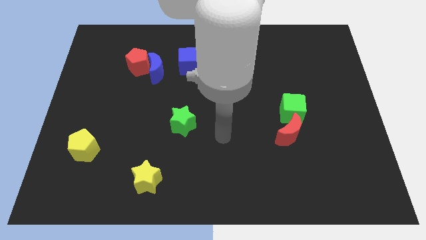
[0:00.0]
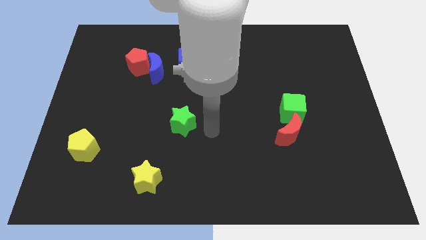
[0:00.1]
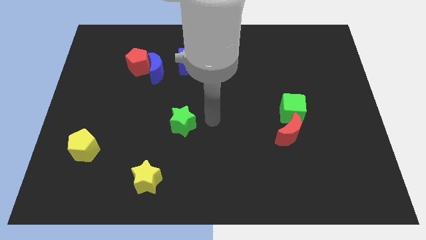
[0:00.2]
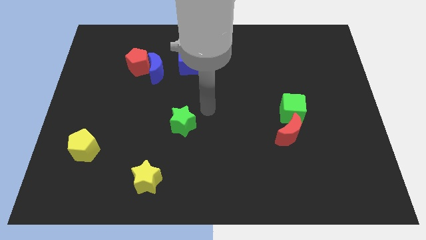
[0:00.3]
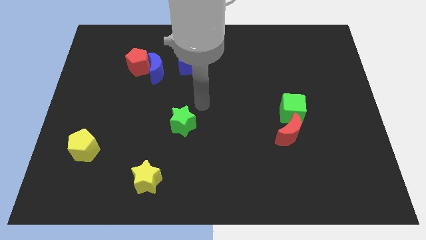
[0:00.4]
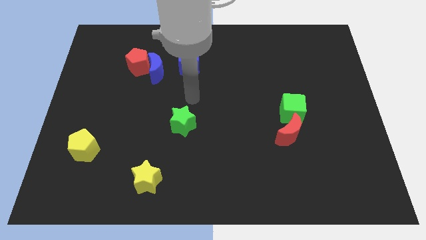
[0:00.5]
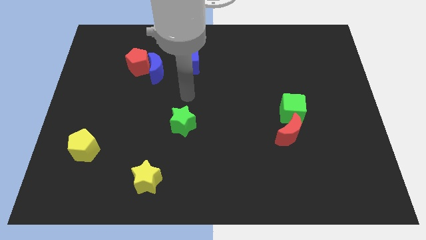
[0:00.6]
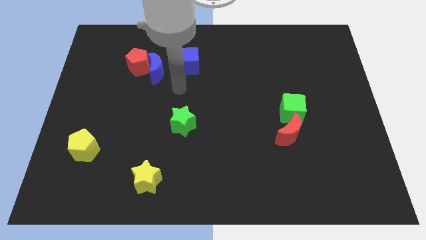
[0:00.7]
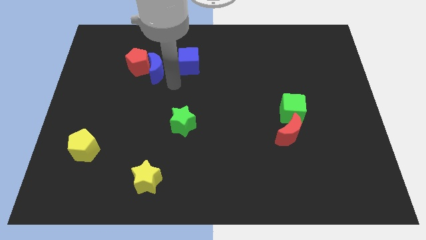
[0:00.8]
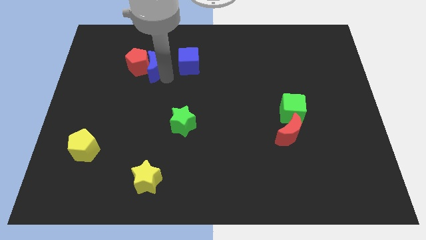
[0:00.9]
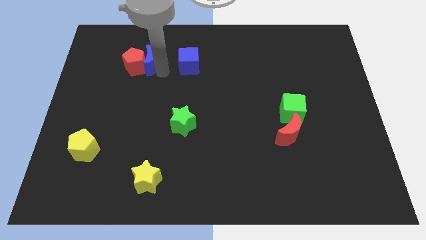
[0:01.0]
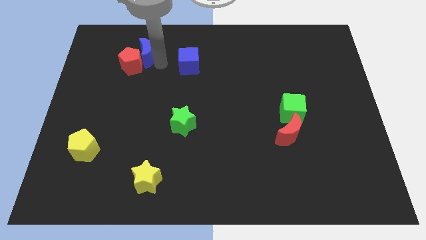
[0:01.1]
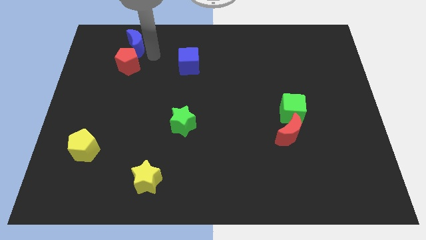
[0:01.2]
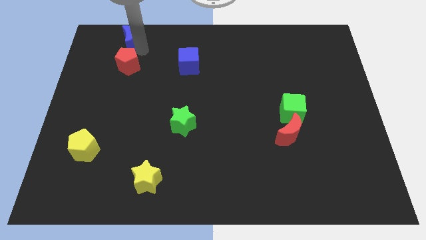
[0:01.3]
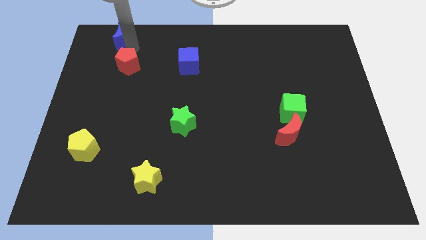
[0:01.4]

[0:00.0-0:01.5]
move the red pentagon away from the blue moon

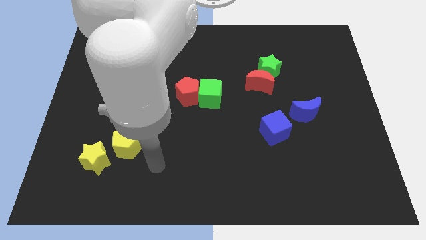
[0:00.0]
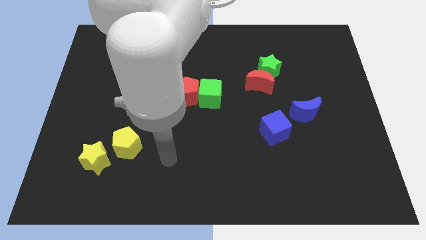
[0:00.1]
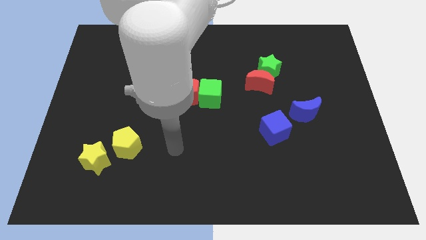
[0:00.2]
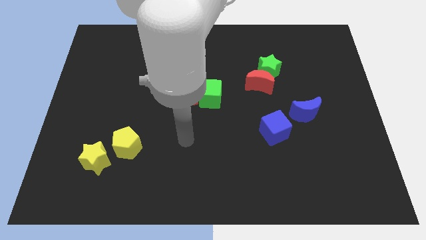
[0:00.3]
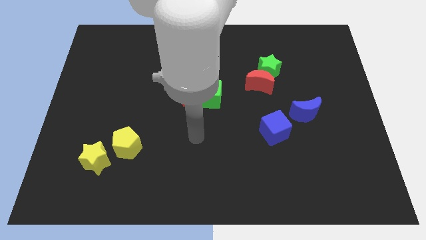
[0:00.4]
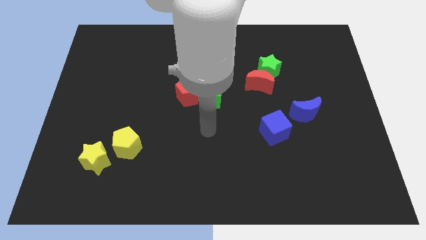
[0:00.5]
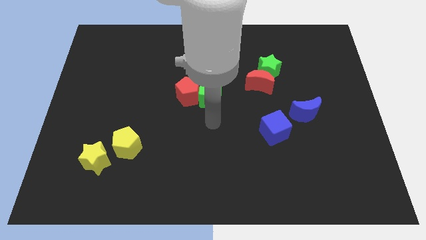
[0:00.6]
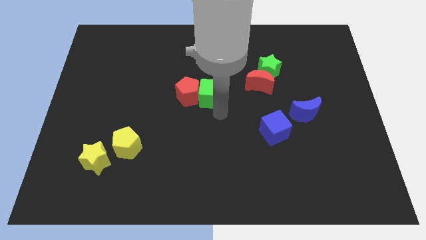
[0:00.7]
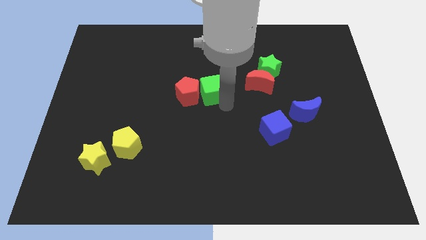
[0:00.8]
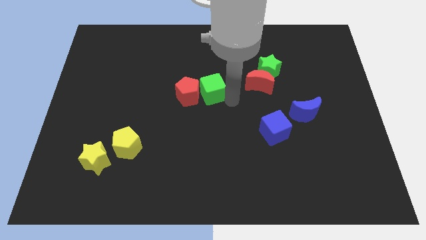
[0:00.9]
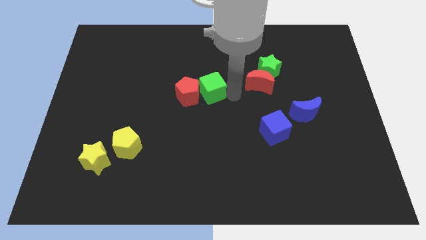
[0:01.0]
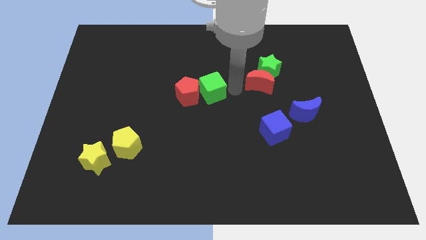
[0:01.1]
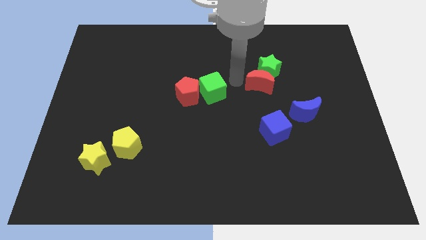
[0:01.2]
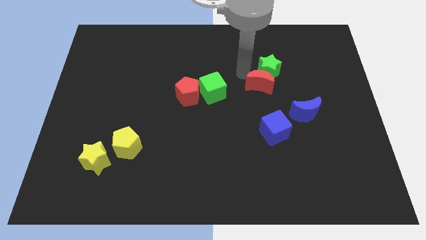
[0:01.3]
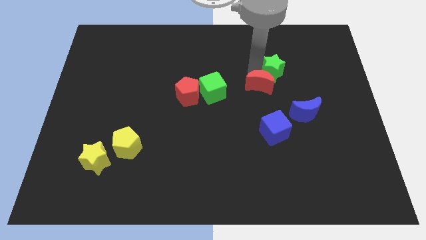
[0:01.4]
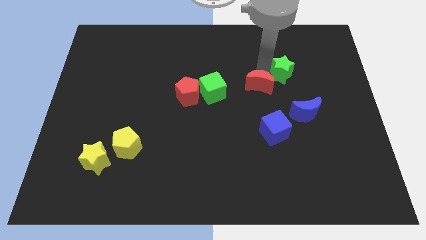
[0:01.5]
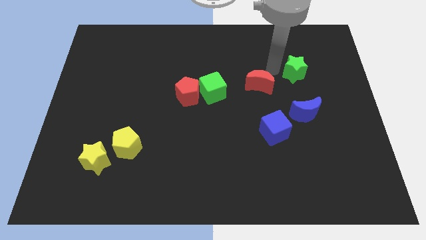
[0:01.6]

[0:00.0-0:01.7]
move the red moon away from the green star

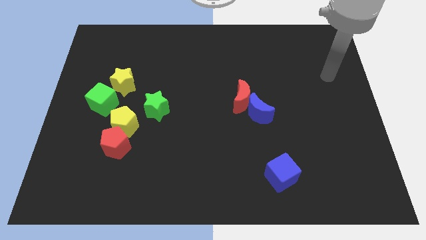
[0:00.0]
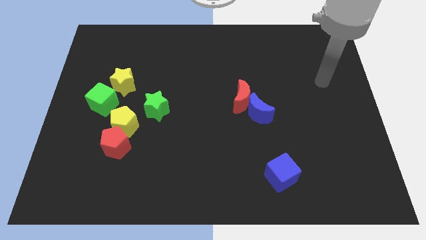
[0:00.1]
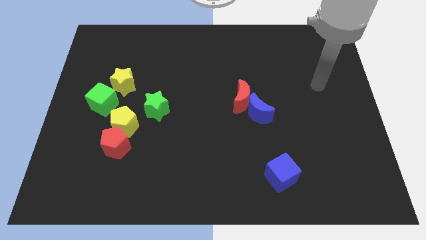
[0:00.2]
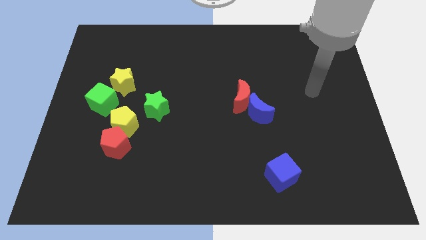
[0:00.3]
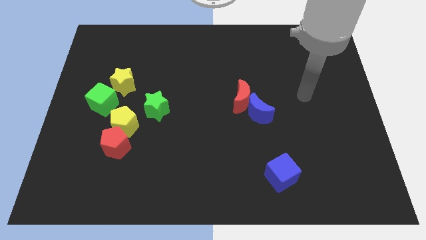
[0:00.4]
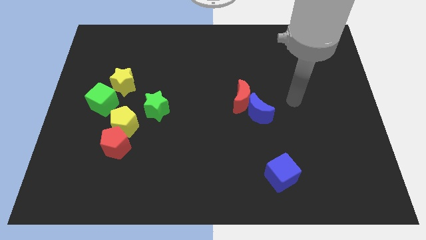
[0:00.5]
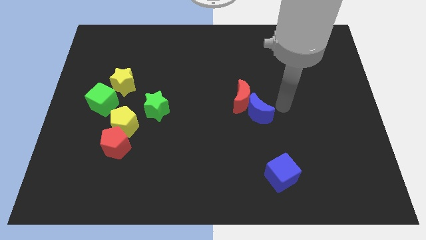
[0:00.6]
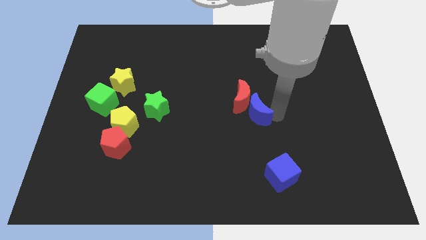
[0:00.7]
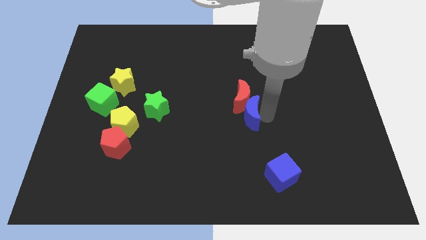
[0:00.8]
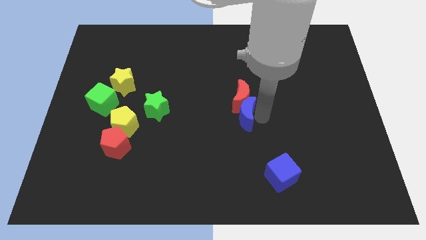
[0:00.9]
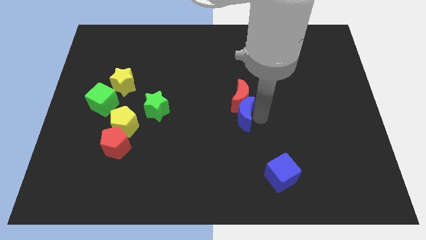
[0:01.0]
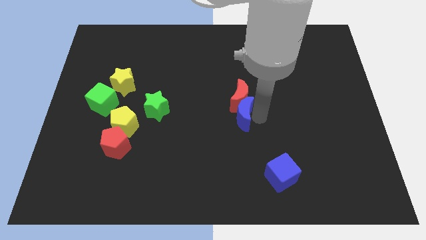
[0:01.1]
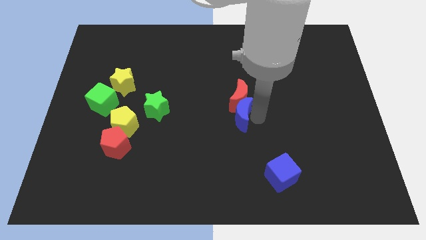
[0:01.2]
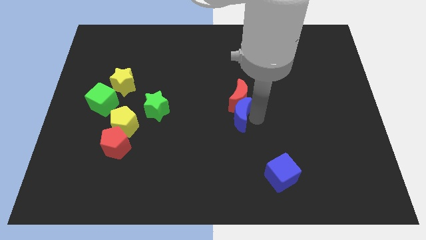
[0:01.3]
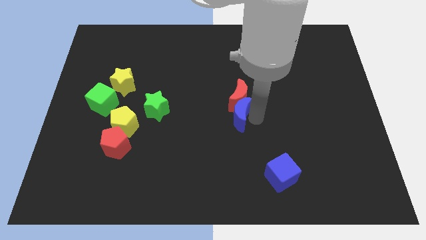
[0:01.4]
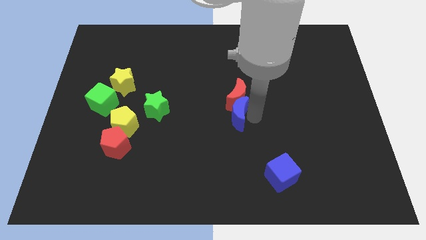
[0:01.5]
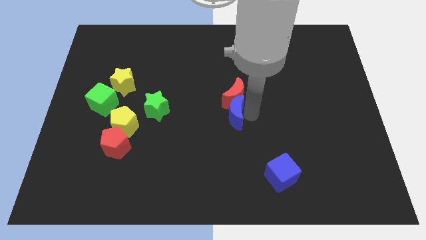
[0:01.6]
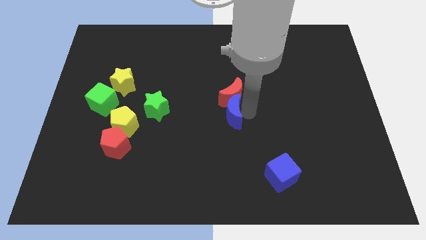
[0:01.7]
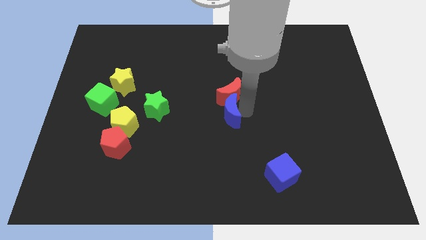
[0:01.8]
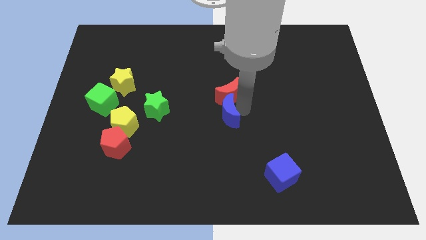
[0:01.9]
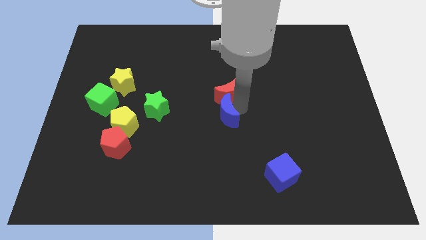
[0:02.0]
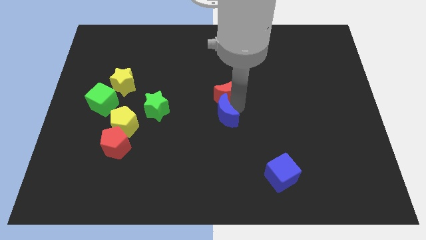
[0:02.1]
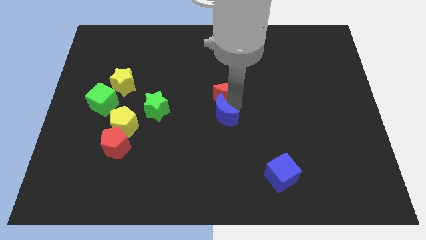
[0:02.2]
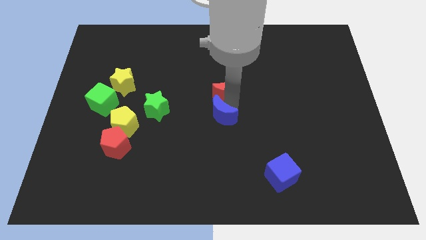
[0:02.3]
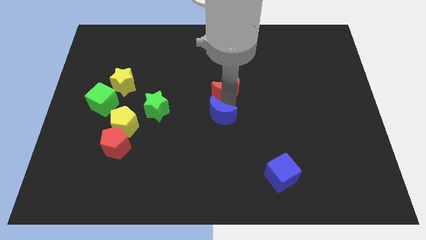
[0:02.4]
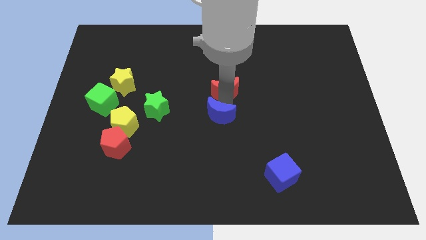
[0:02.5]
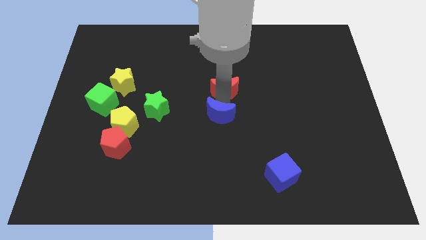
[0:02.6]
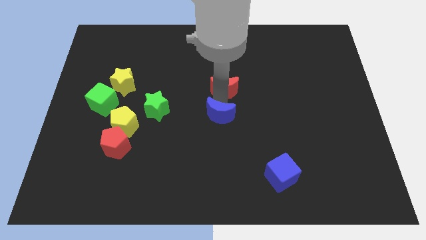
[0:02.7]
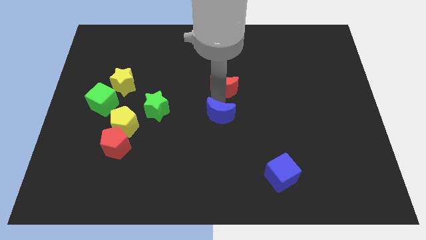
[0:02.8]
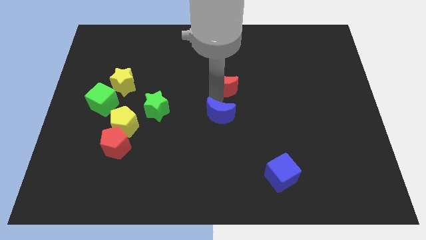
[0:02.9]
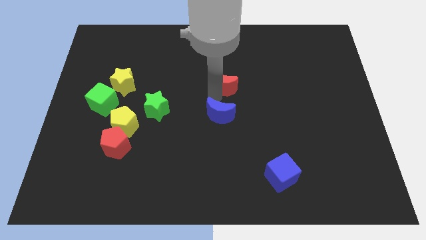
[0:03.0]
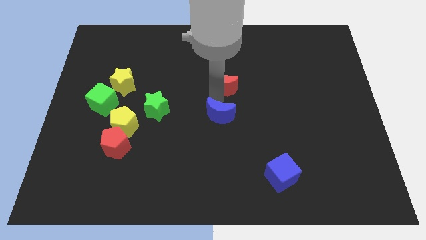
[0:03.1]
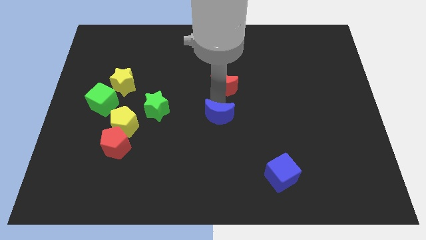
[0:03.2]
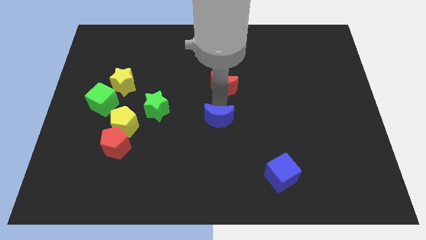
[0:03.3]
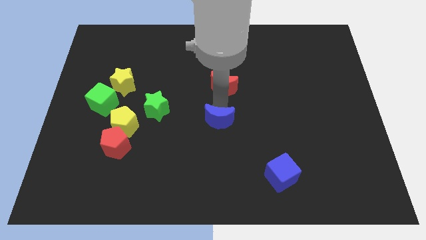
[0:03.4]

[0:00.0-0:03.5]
pull the red moon apart from the blue moon

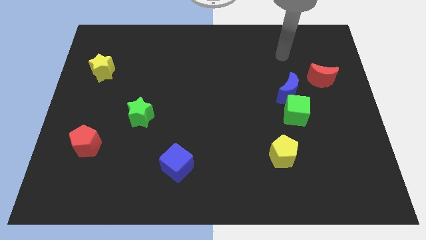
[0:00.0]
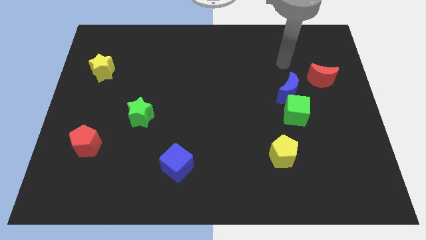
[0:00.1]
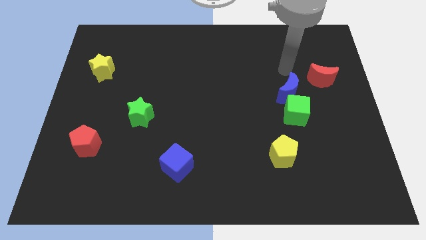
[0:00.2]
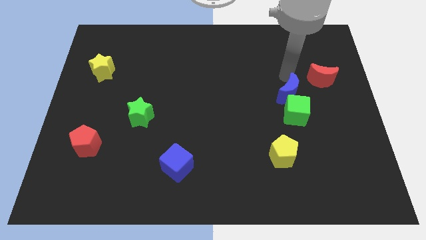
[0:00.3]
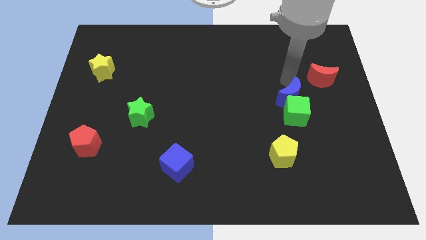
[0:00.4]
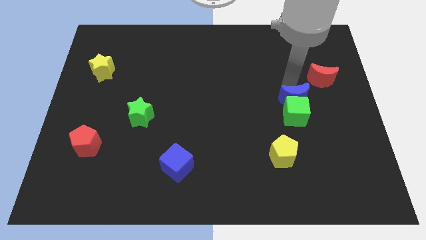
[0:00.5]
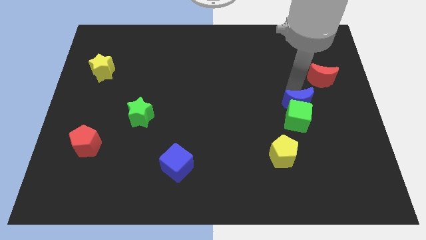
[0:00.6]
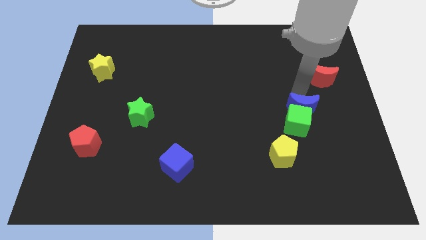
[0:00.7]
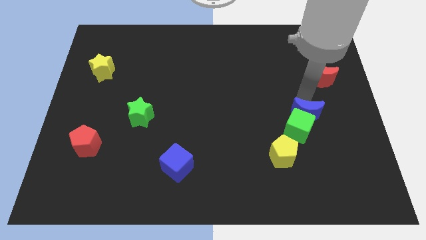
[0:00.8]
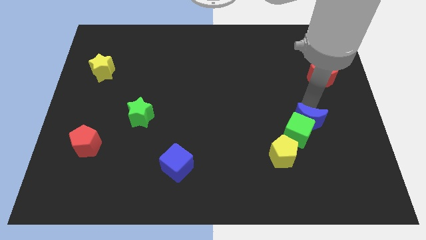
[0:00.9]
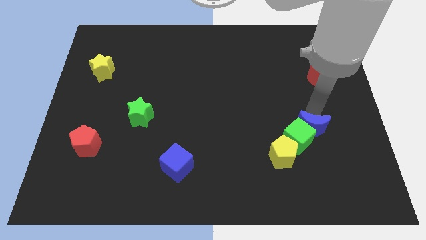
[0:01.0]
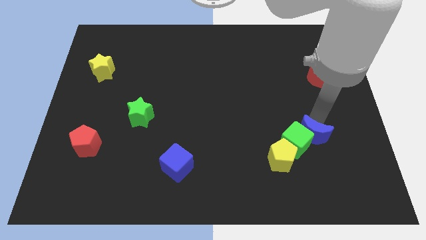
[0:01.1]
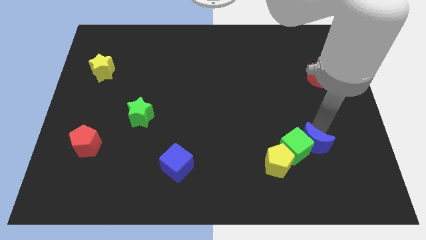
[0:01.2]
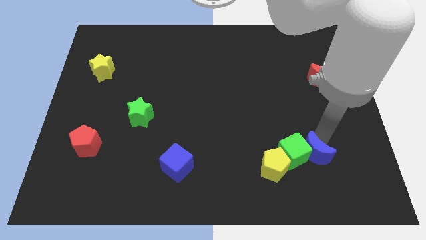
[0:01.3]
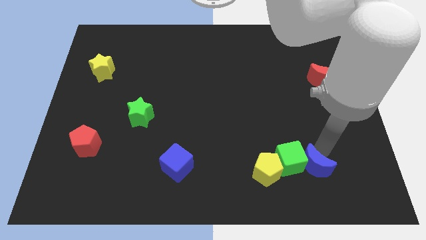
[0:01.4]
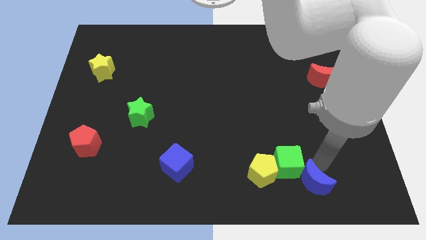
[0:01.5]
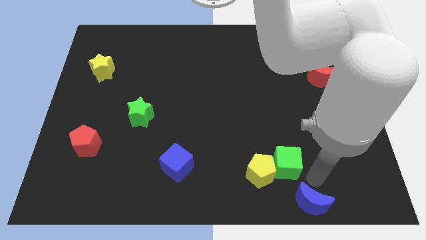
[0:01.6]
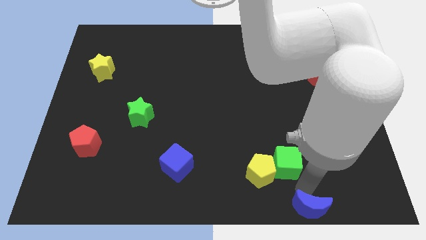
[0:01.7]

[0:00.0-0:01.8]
pull the green cube apart from the blue moon

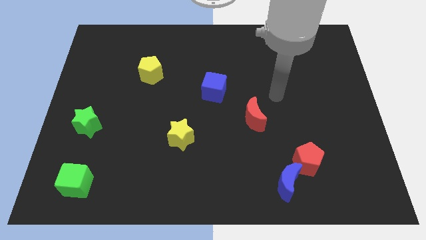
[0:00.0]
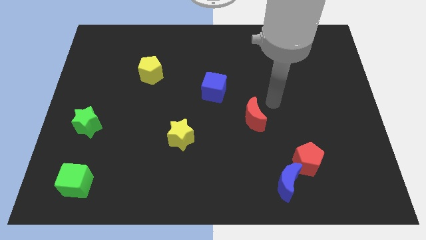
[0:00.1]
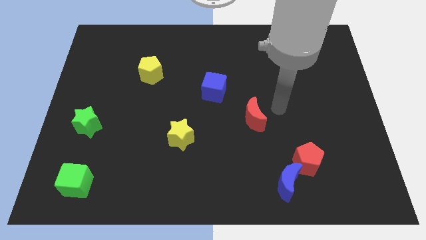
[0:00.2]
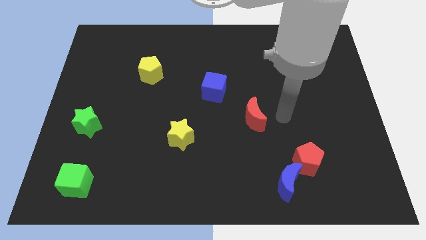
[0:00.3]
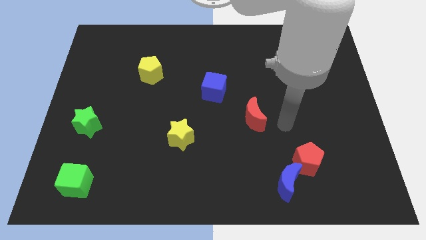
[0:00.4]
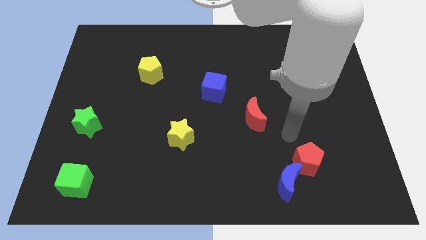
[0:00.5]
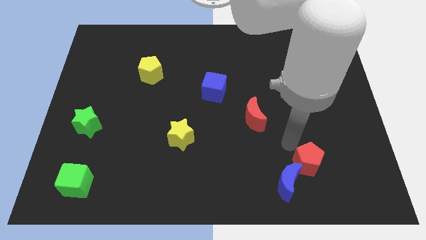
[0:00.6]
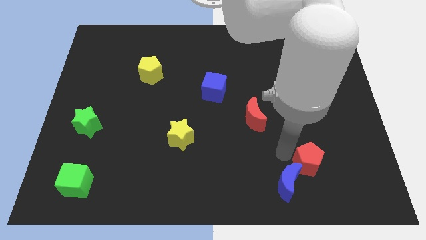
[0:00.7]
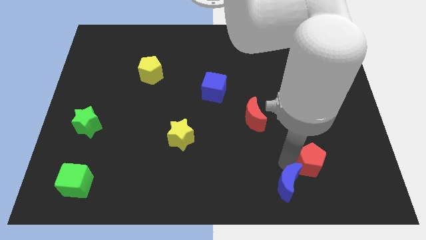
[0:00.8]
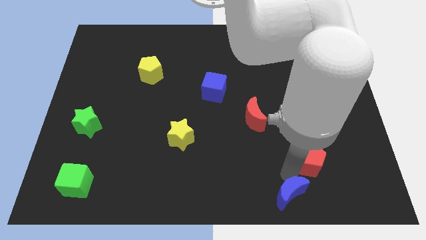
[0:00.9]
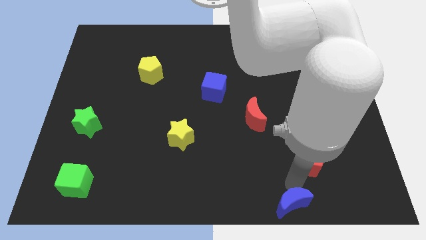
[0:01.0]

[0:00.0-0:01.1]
pull the red pentagon apart from the blue moon
